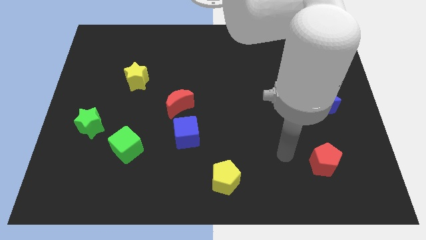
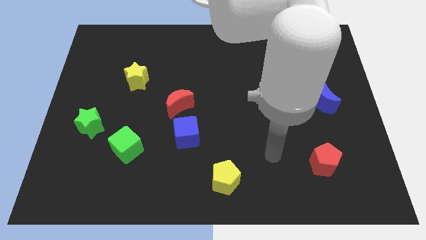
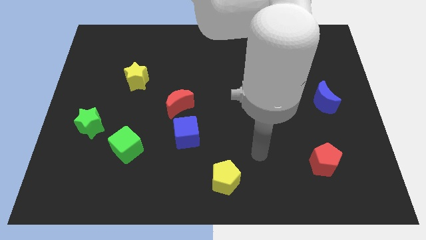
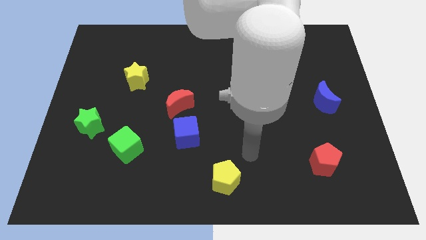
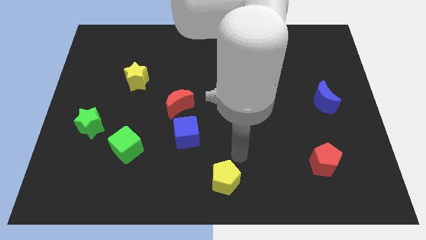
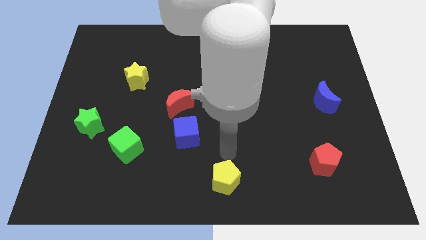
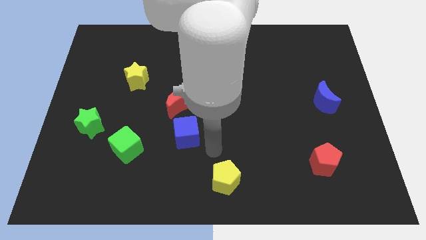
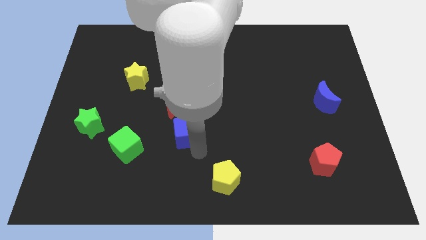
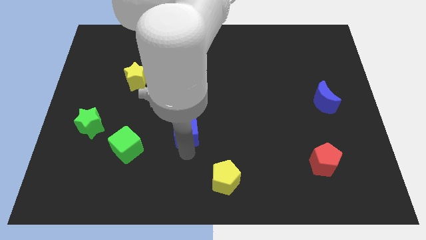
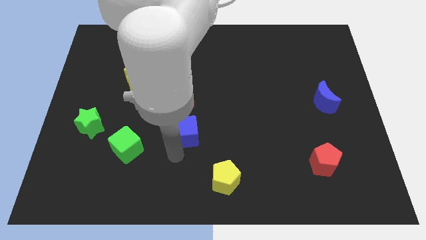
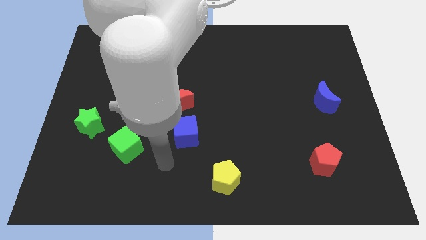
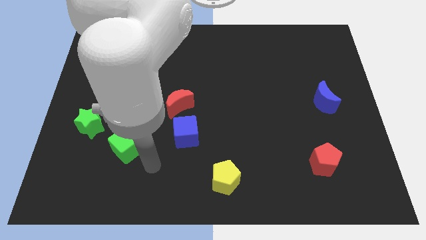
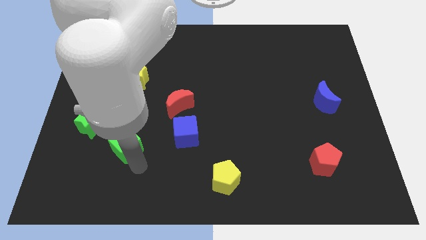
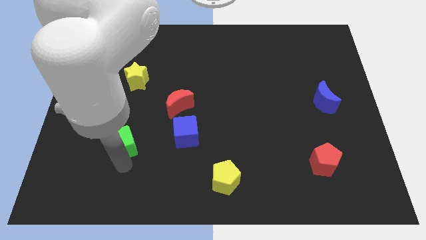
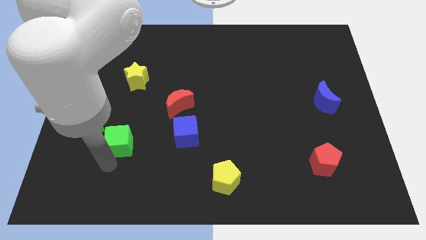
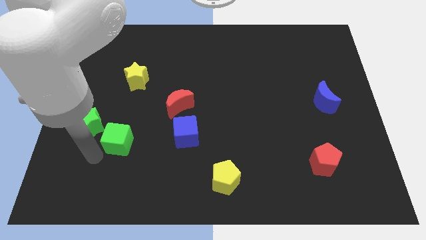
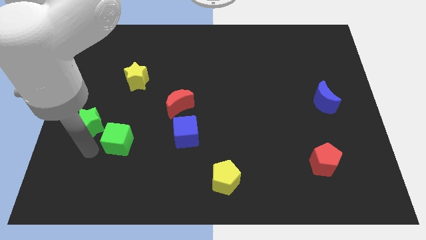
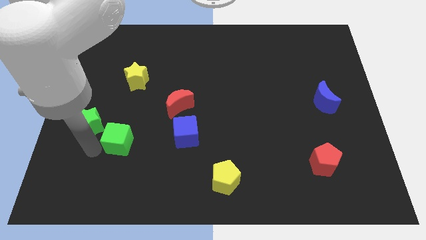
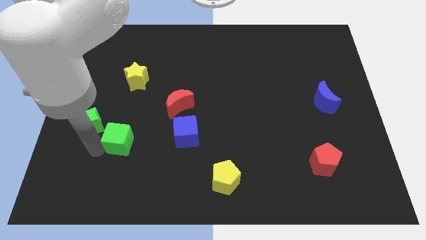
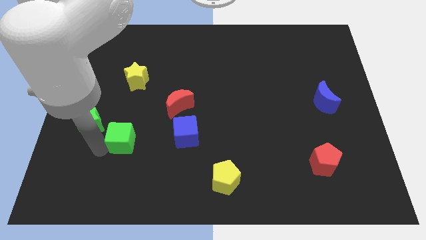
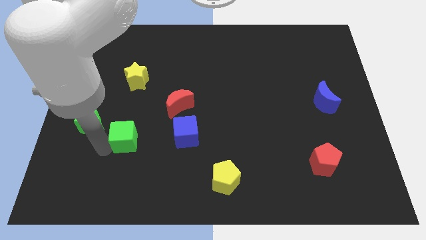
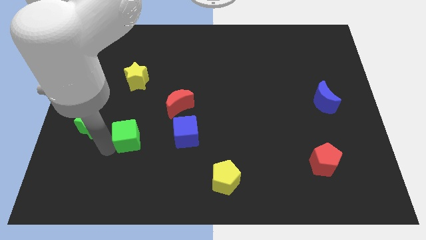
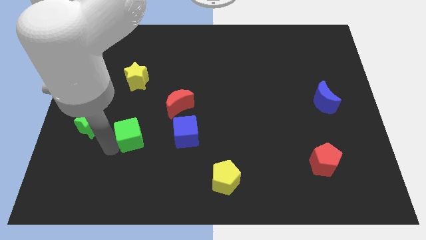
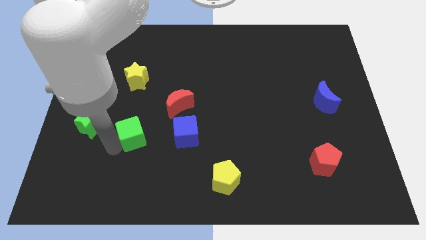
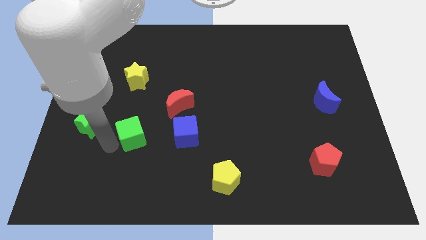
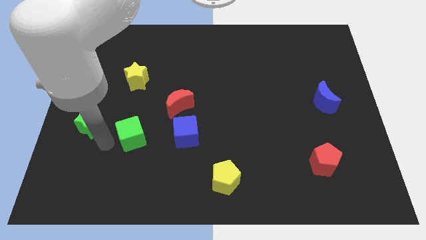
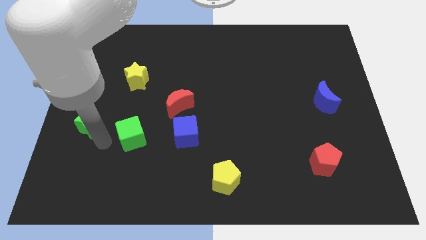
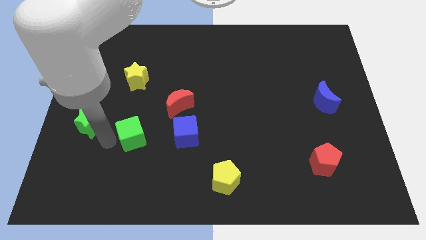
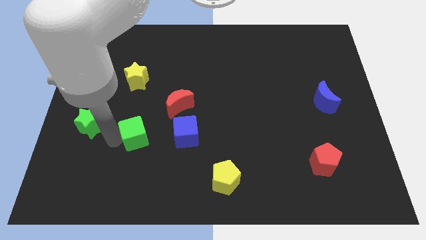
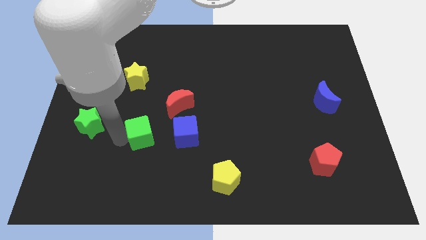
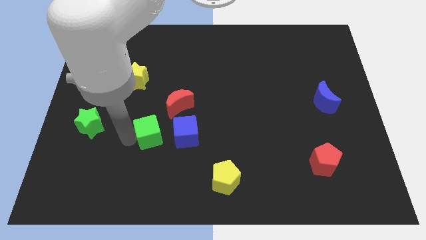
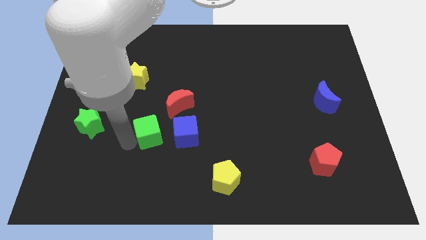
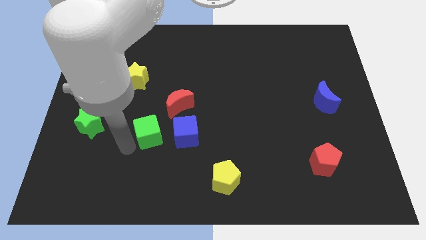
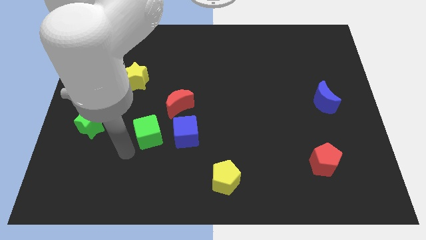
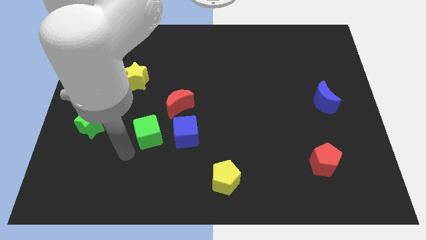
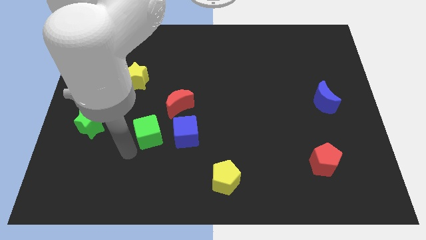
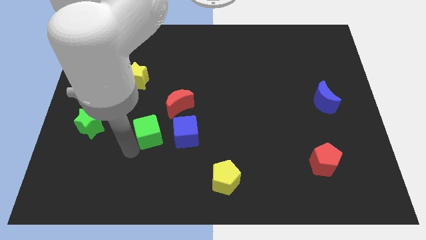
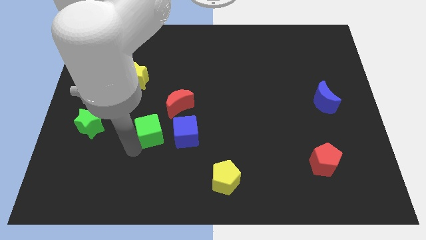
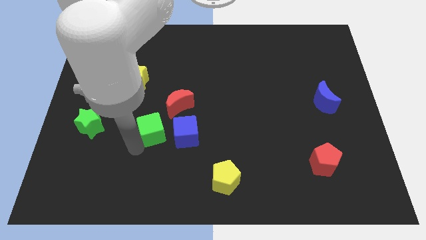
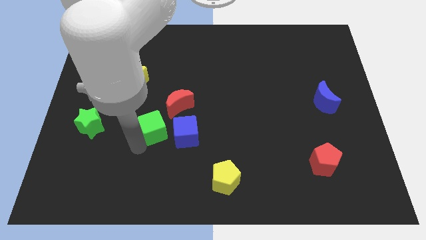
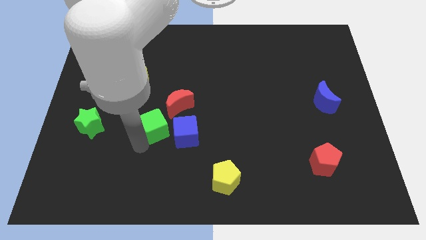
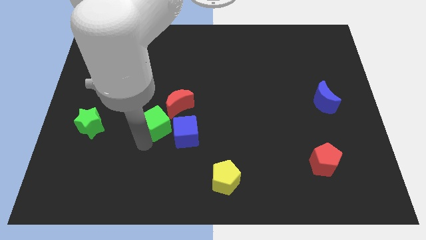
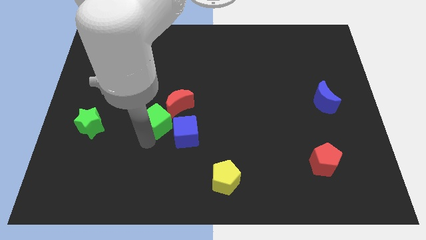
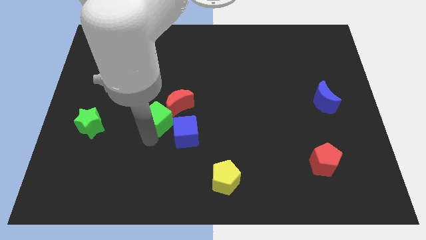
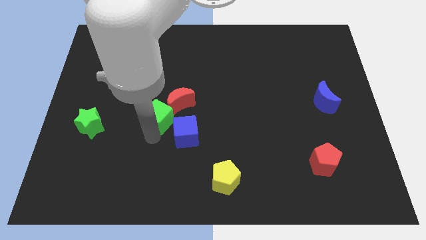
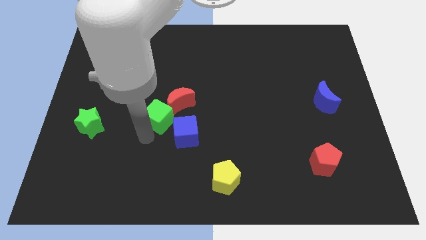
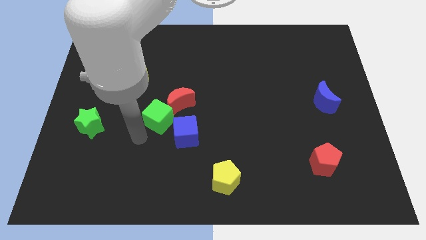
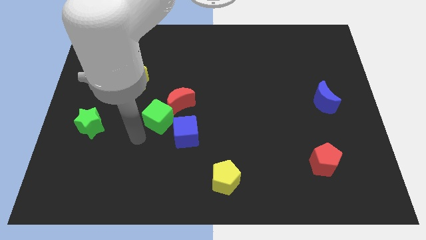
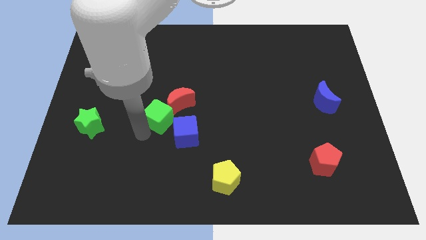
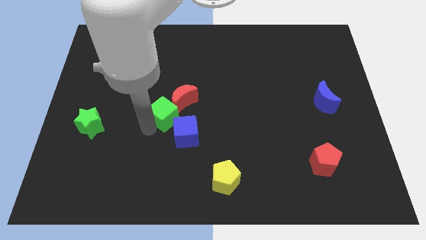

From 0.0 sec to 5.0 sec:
slide the green cube next to the red moon

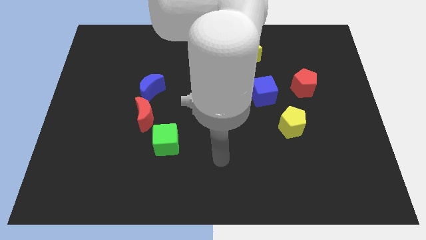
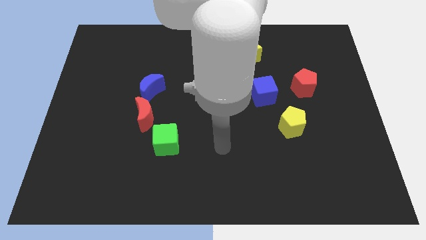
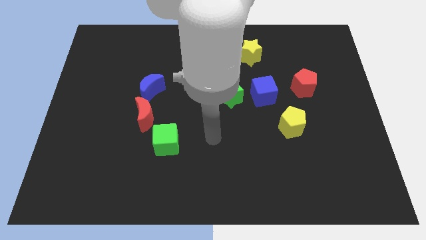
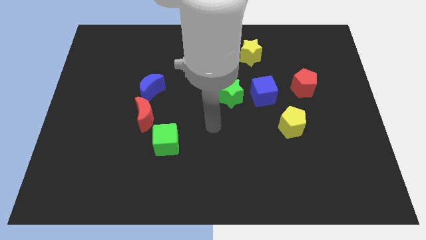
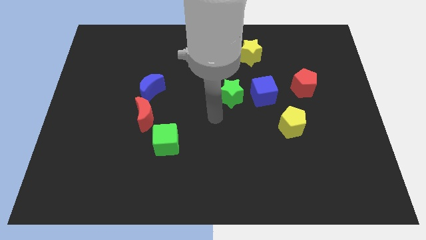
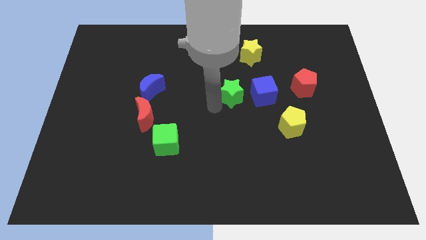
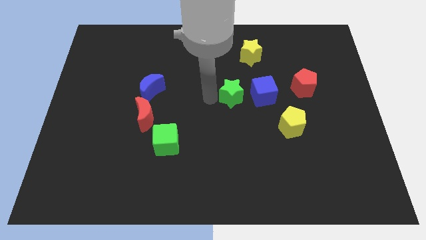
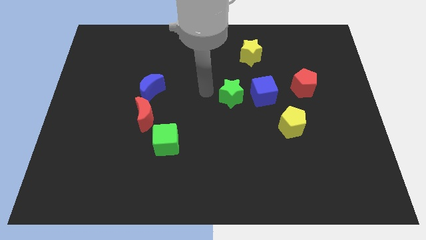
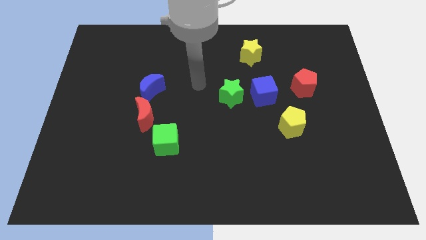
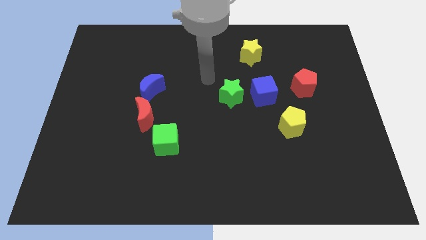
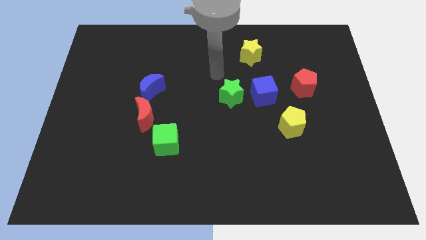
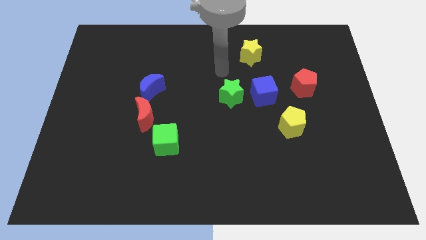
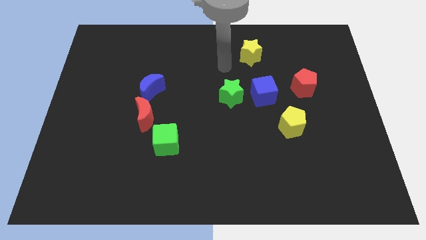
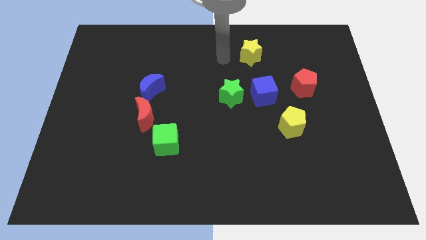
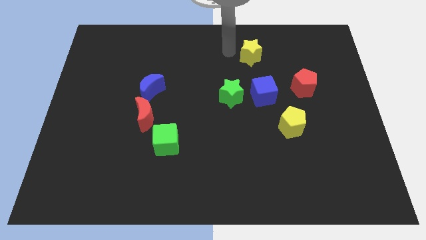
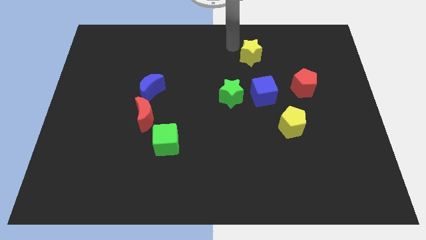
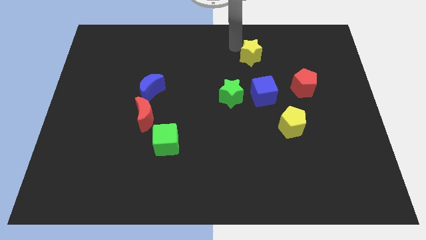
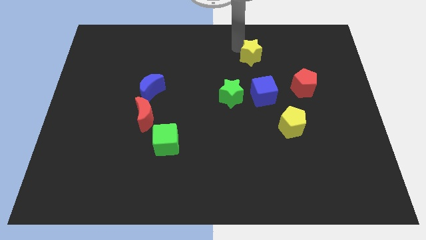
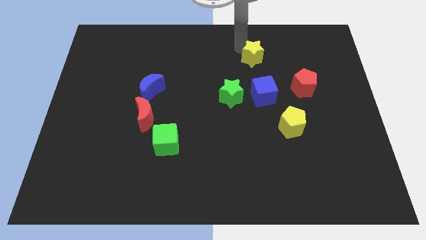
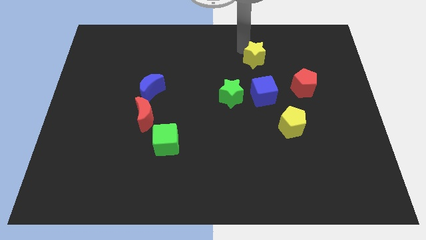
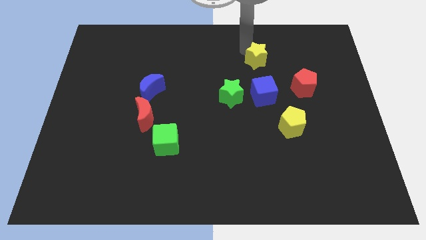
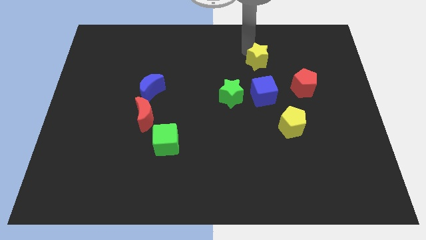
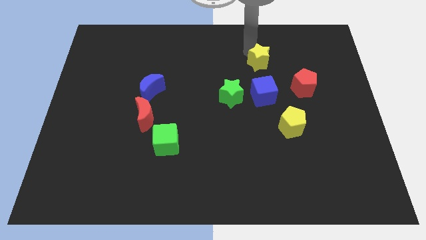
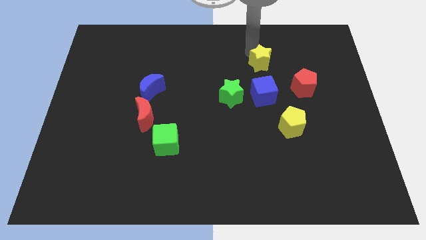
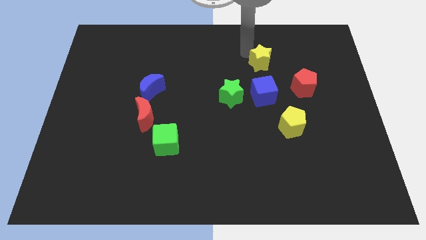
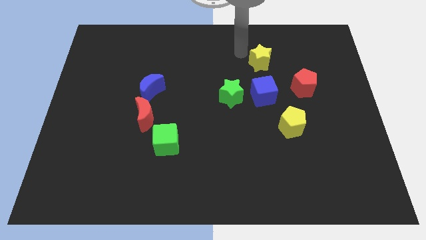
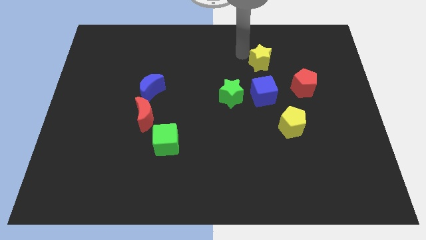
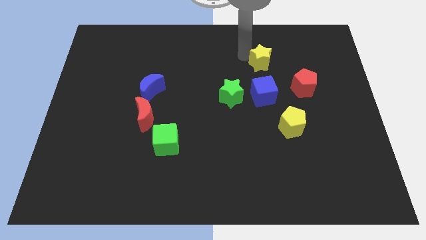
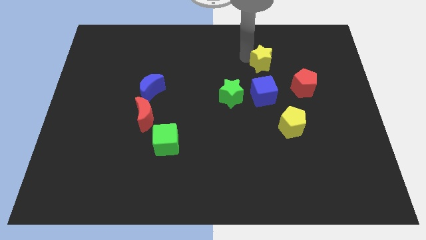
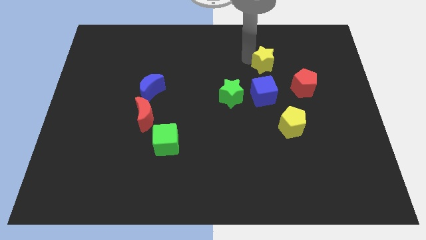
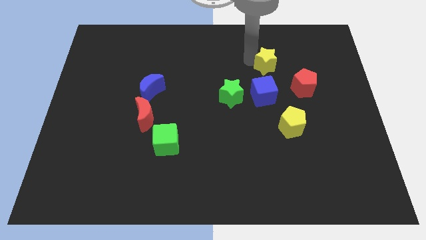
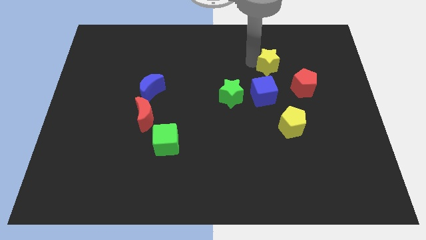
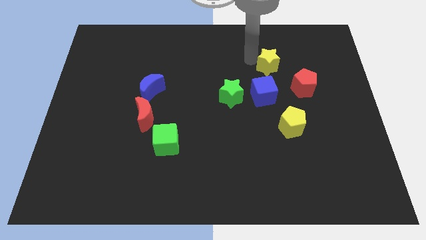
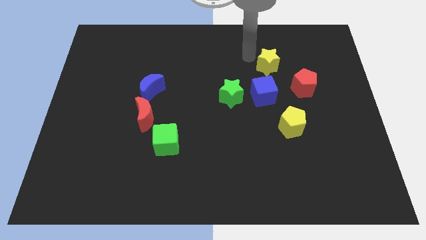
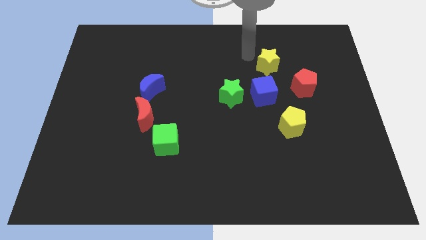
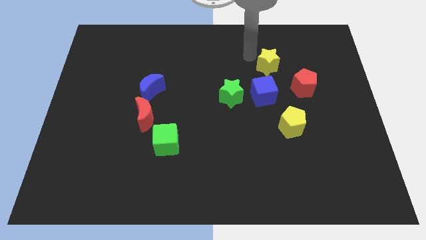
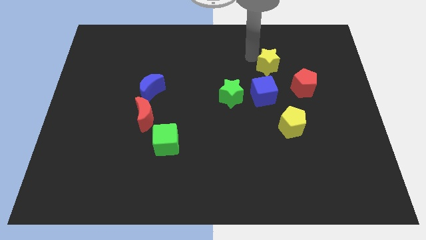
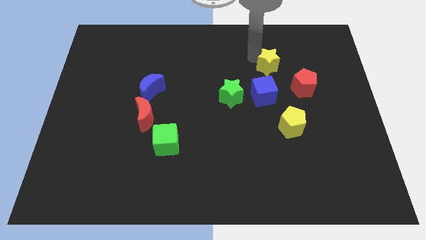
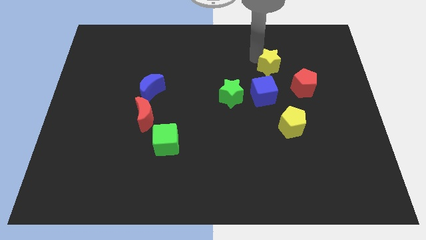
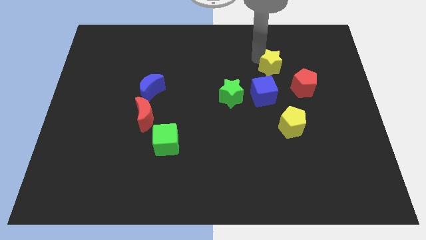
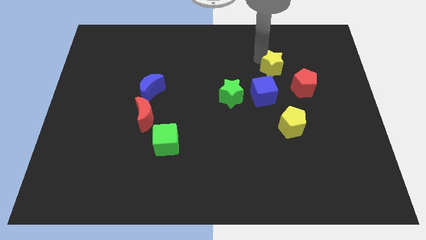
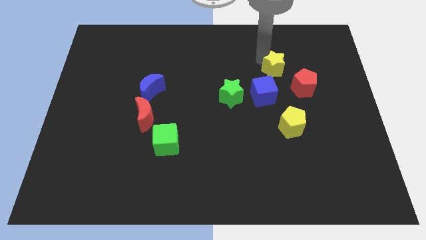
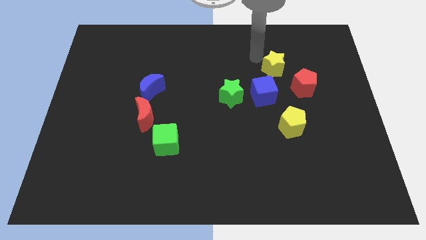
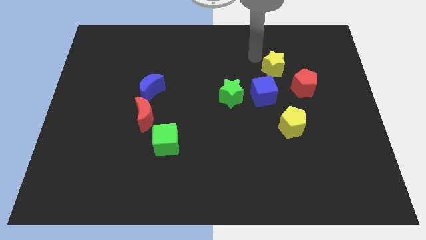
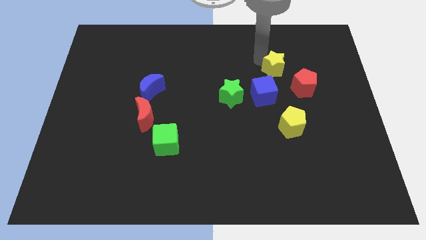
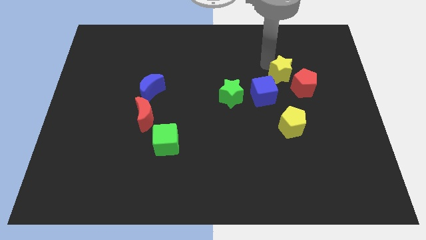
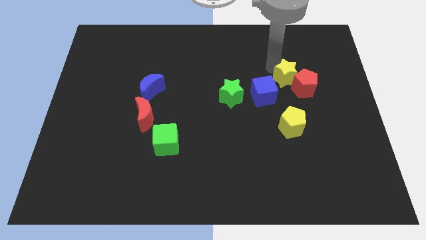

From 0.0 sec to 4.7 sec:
push the yellow star to the red pentagon
